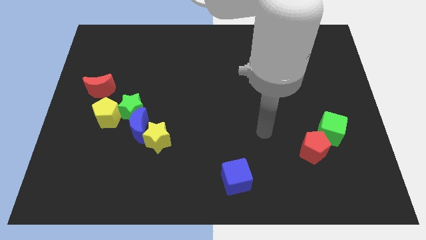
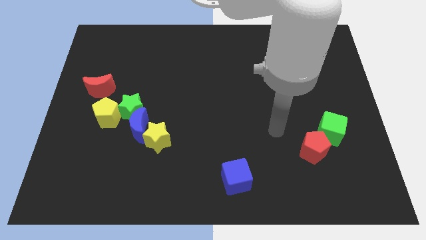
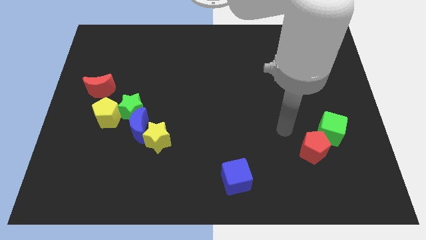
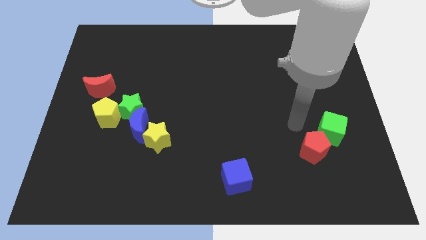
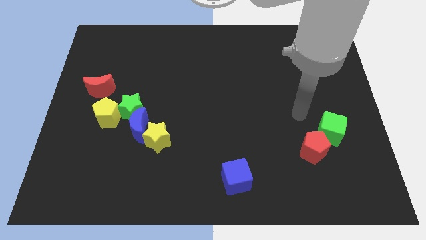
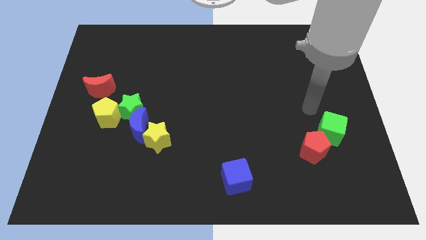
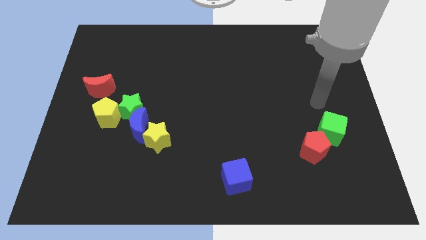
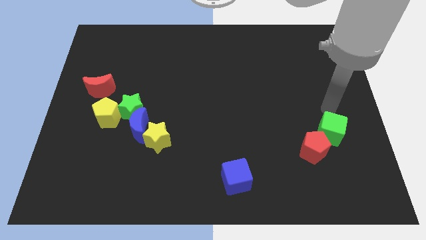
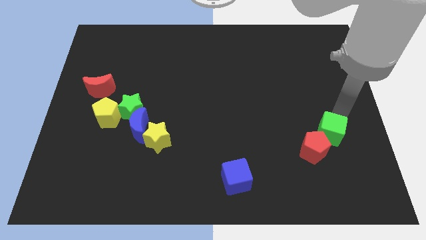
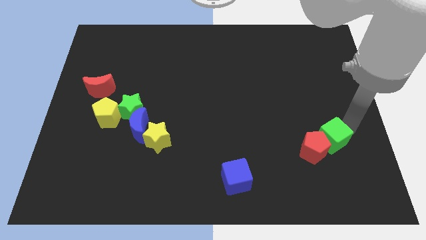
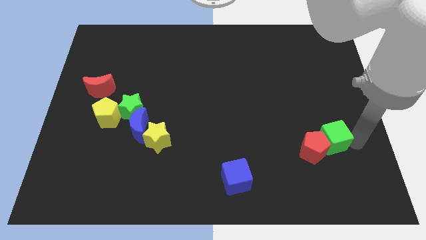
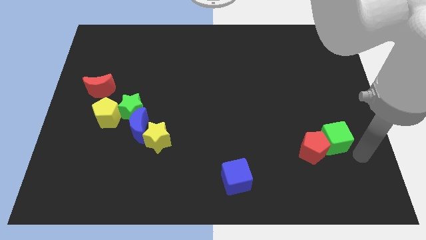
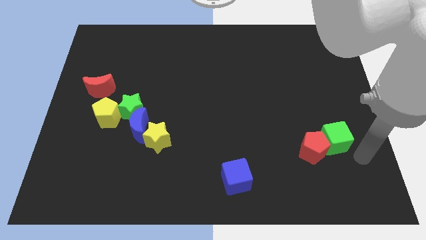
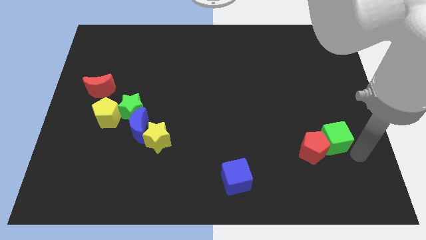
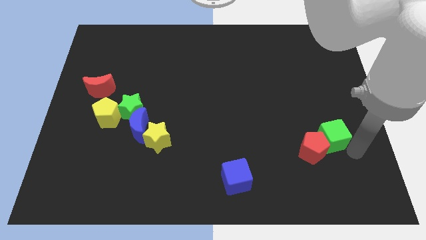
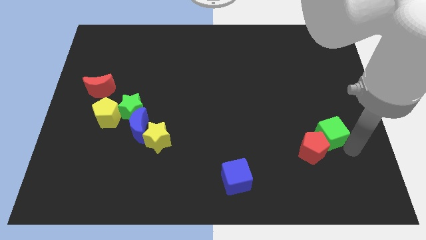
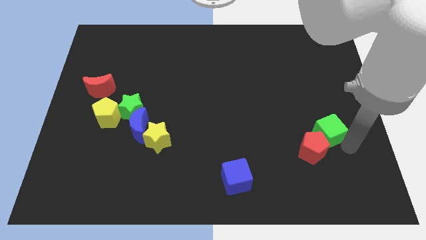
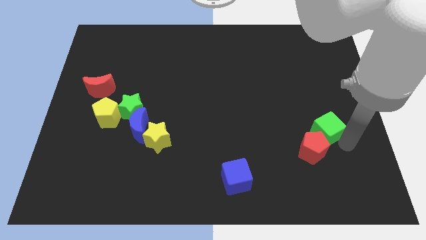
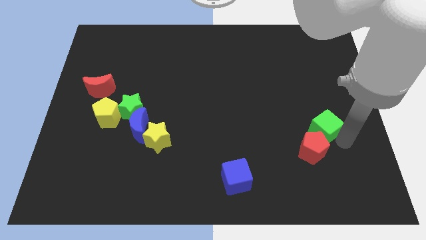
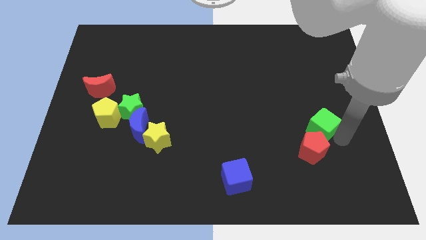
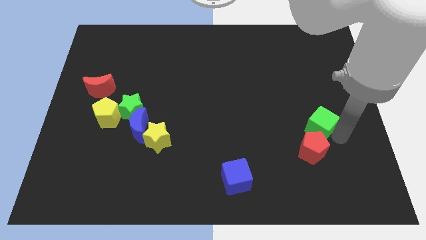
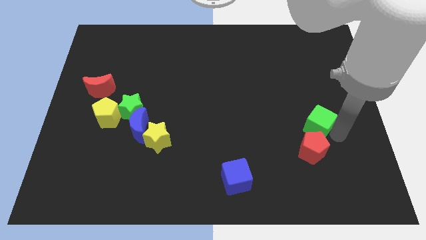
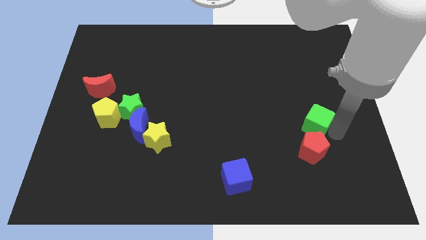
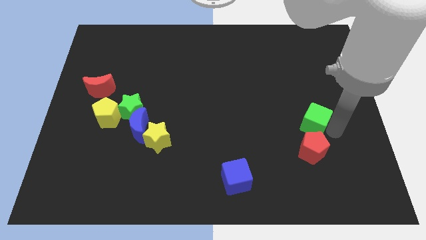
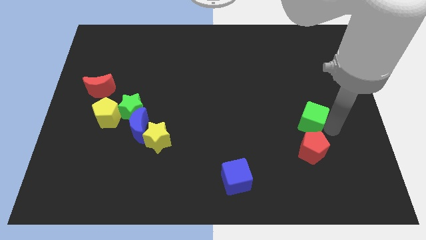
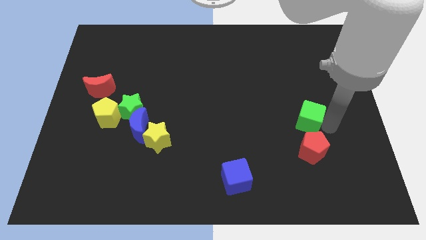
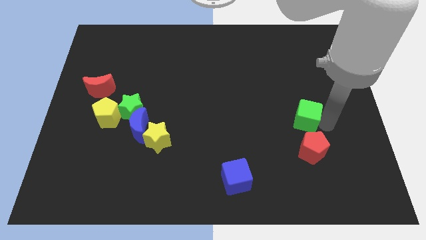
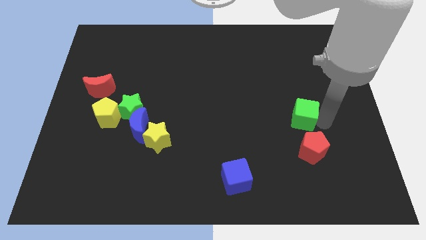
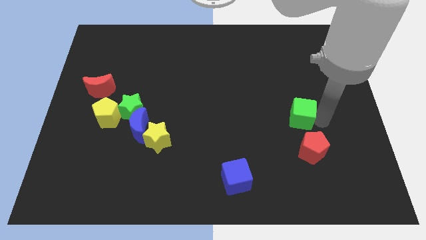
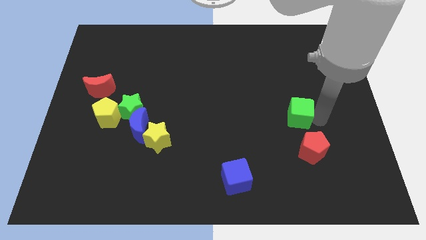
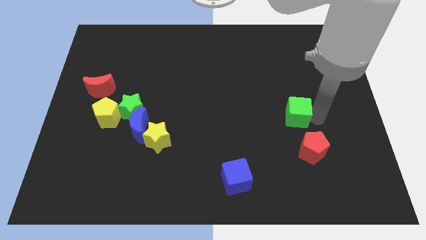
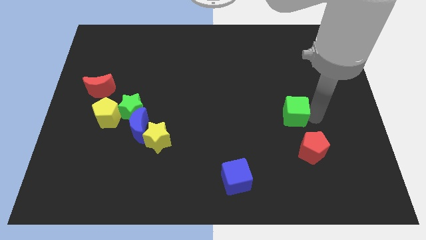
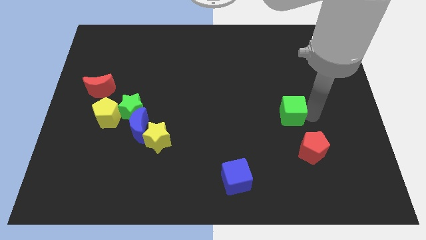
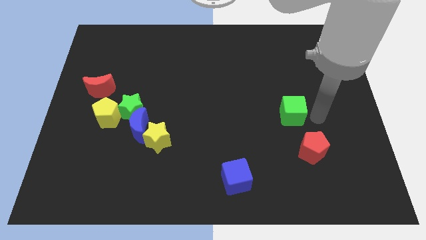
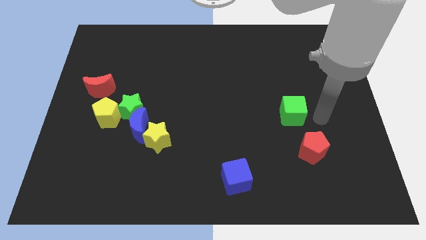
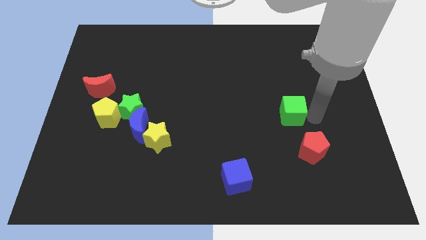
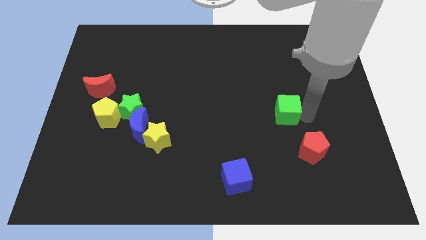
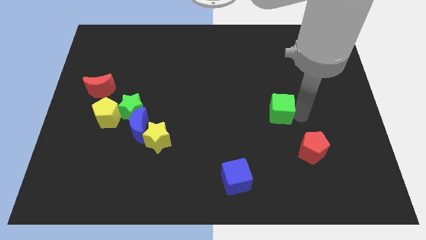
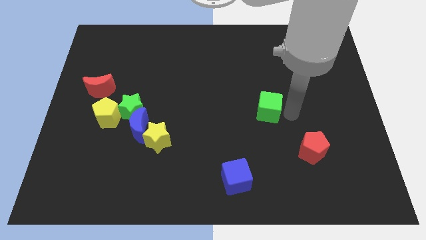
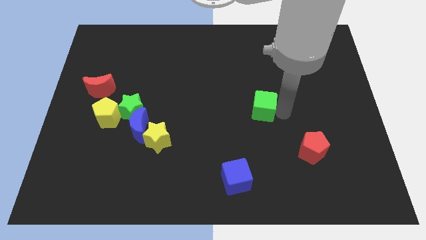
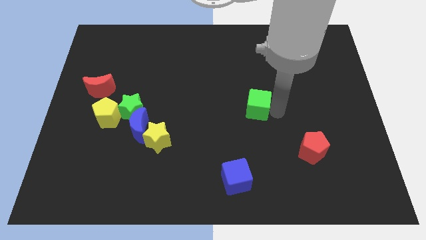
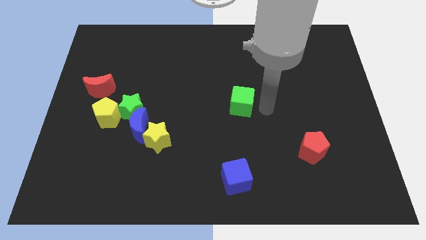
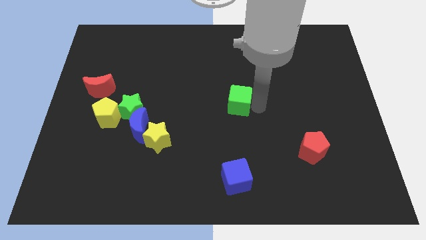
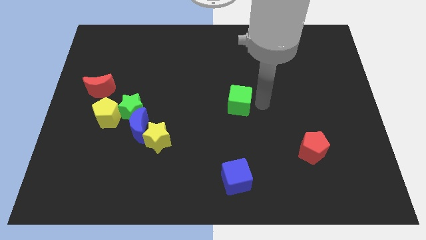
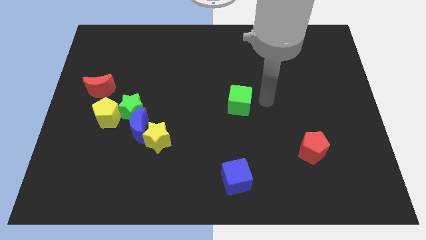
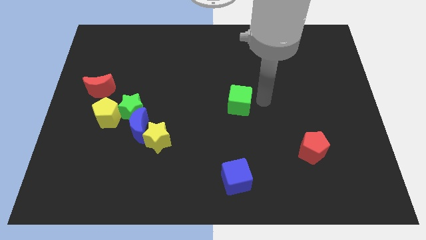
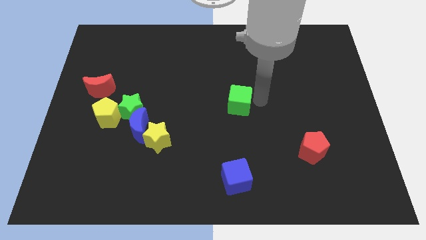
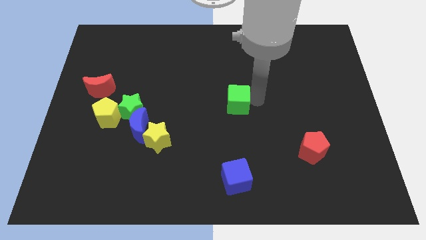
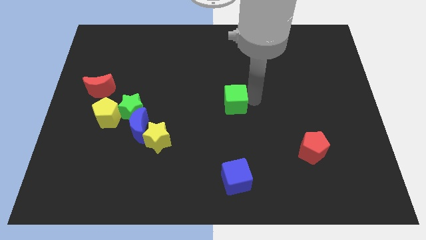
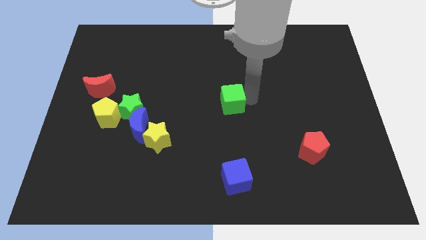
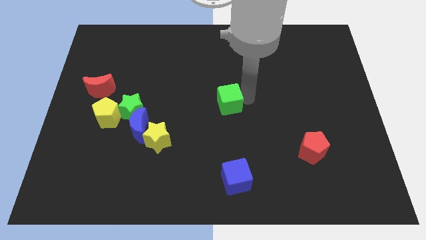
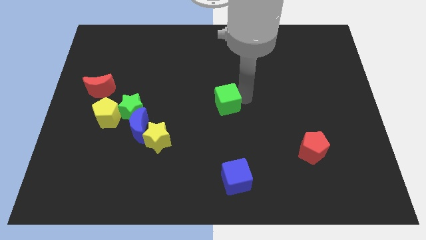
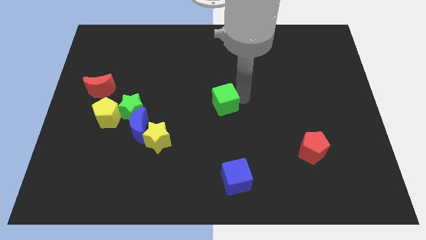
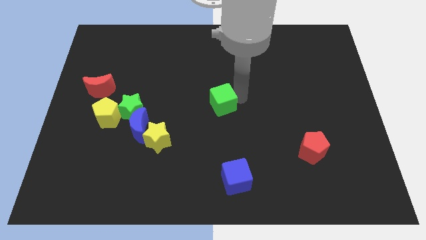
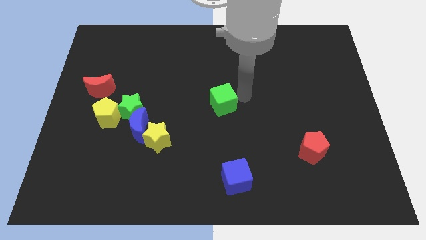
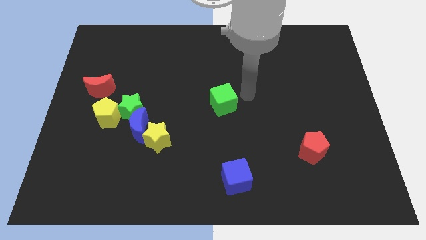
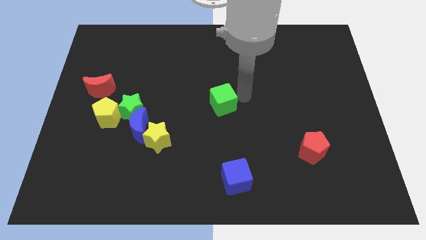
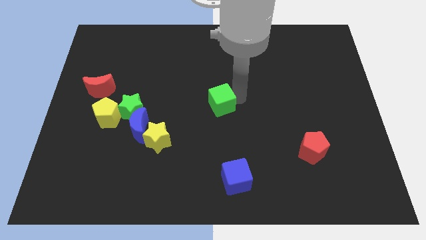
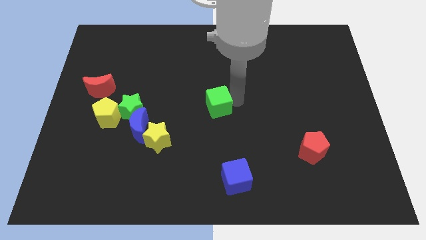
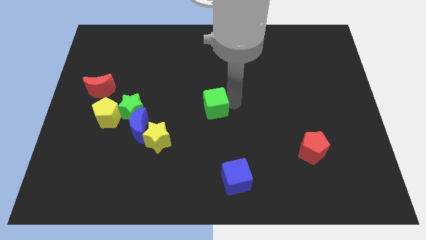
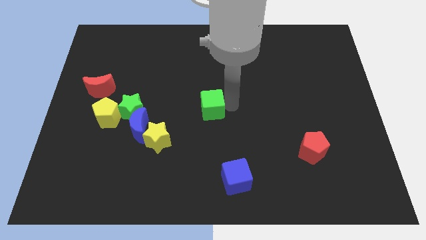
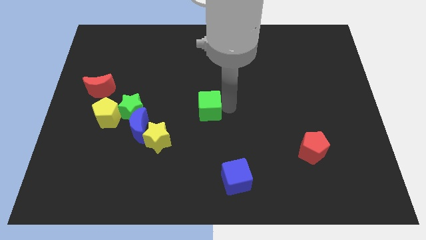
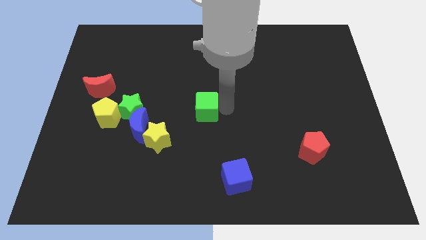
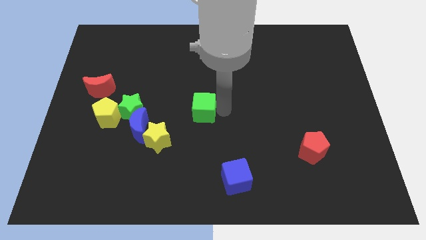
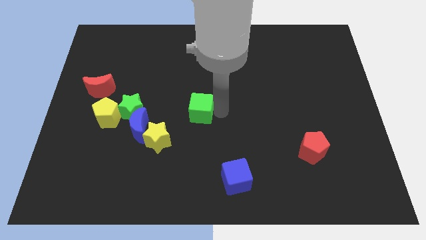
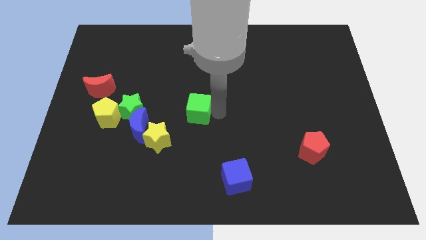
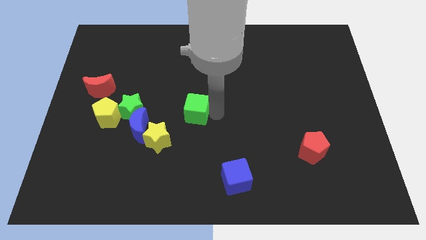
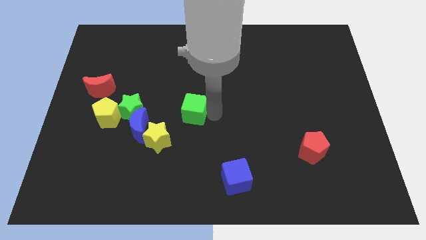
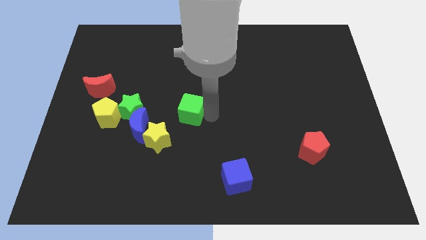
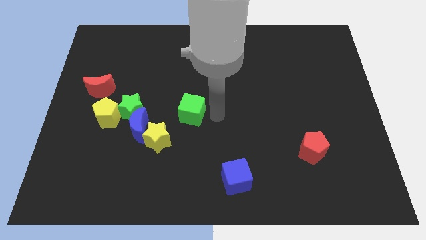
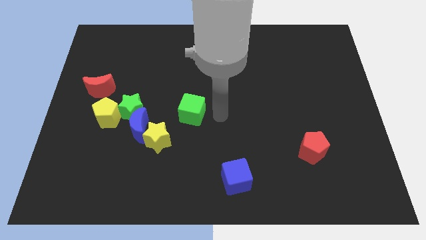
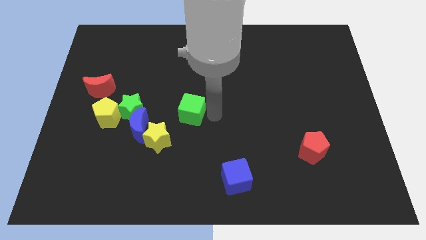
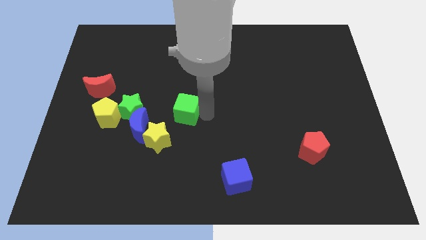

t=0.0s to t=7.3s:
move the green cube to the top right of the blue moon

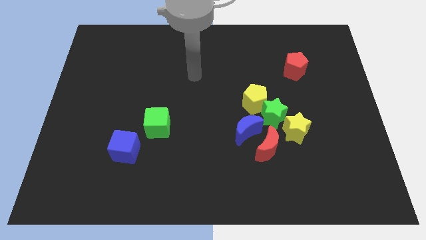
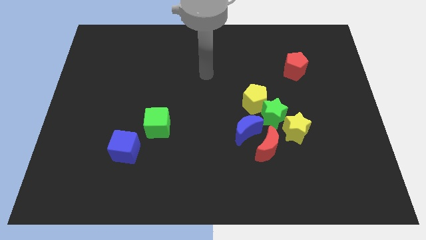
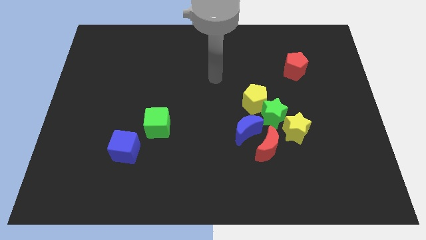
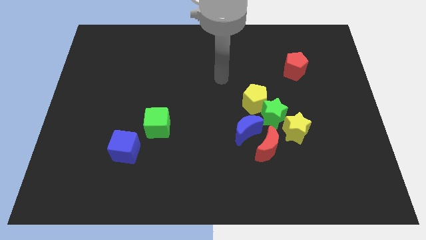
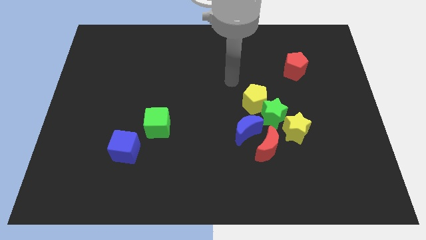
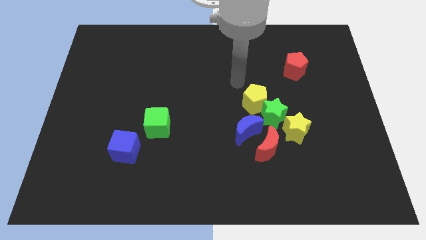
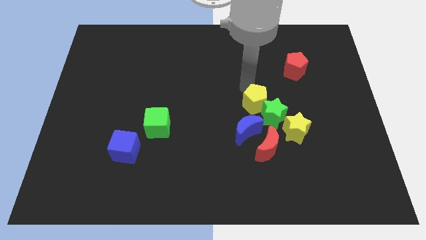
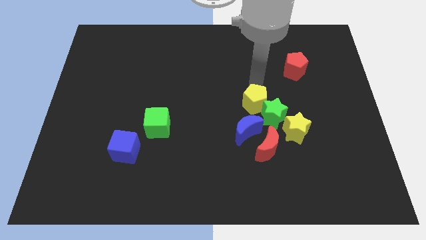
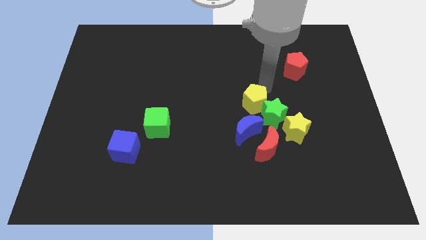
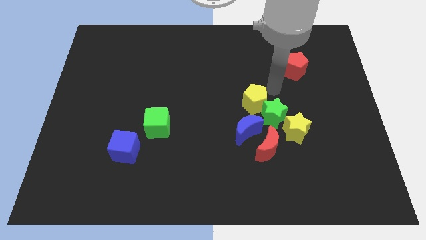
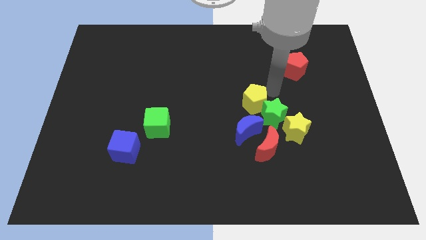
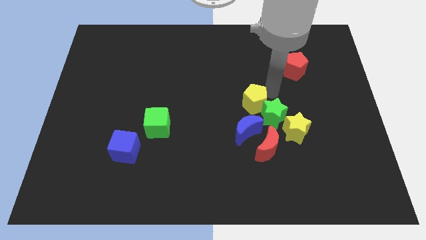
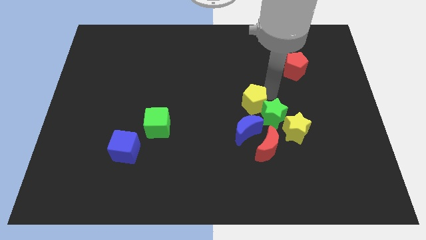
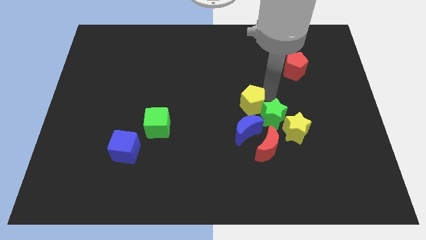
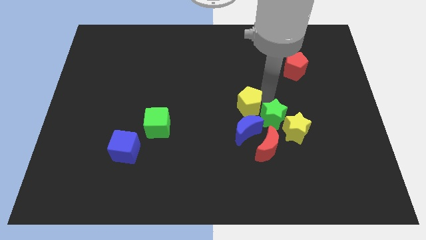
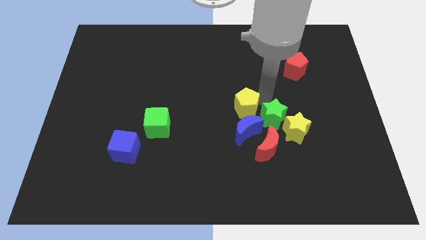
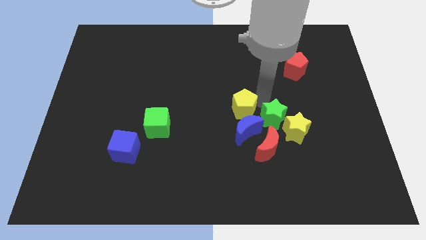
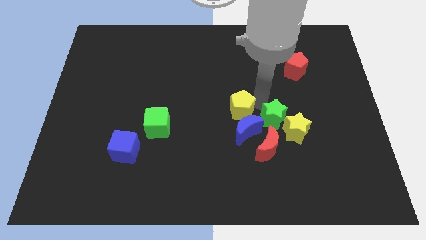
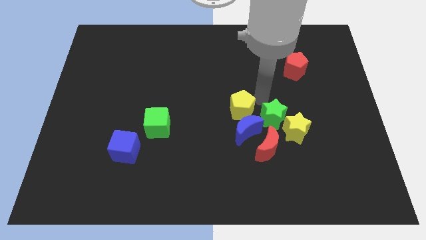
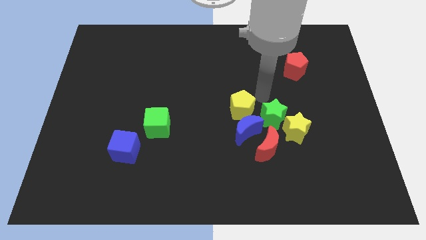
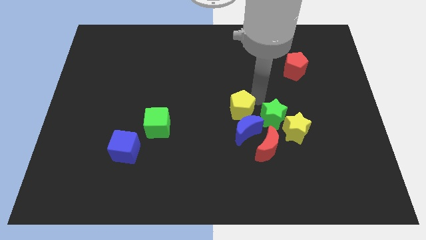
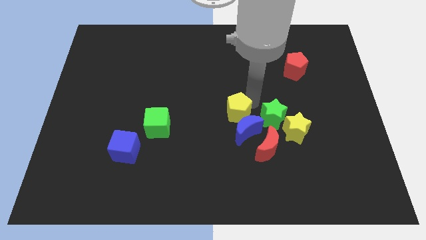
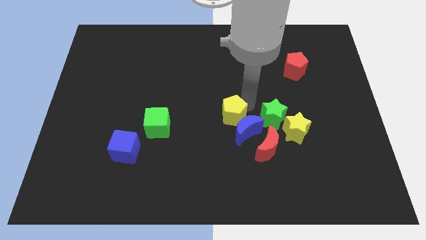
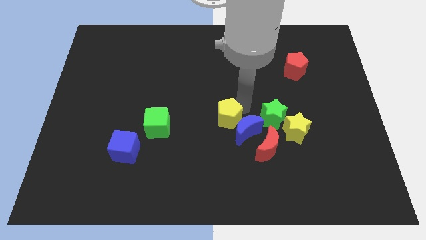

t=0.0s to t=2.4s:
push the yellow pentagon left of the blue moon
